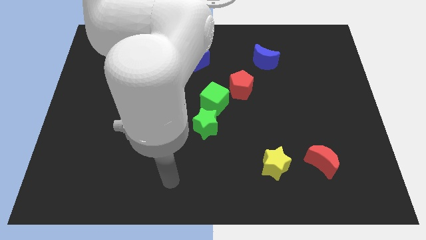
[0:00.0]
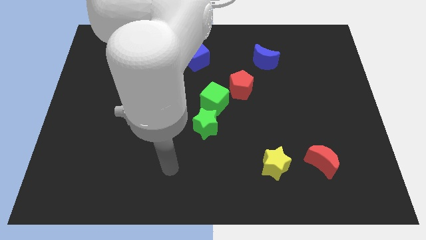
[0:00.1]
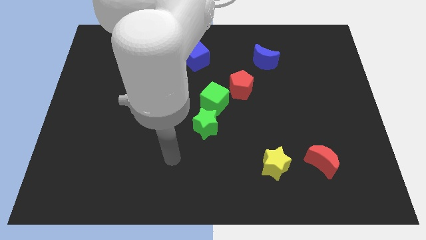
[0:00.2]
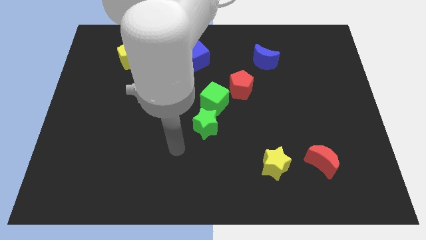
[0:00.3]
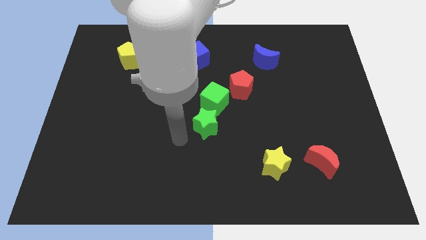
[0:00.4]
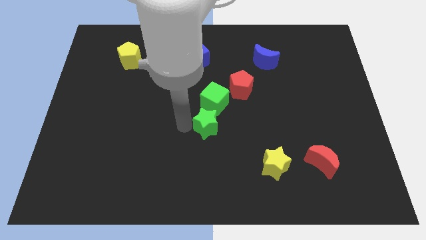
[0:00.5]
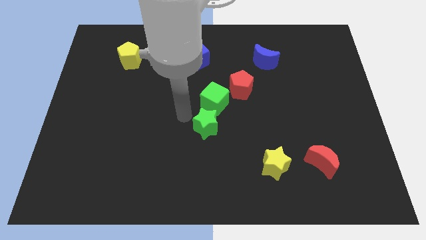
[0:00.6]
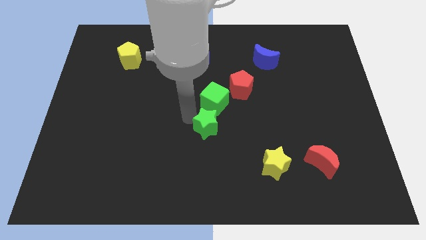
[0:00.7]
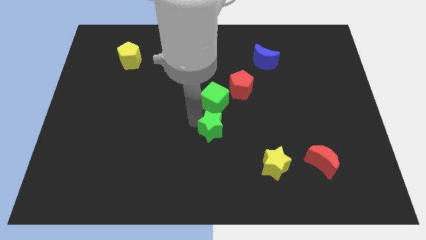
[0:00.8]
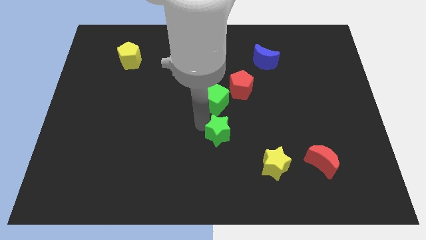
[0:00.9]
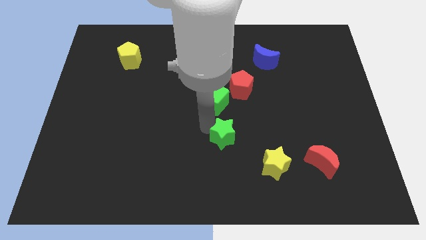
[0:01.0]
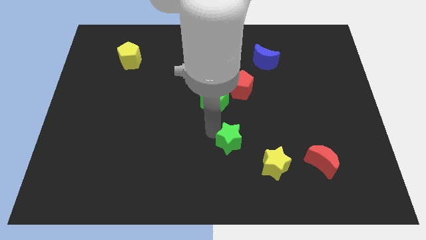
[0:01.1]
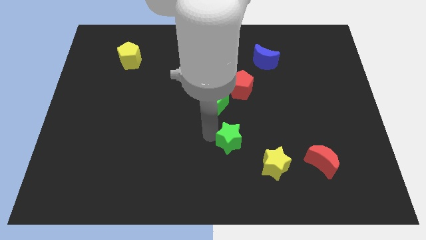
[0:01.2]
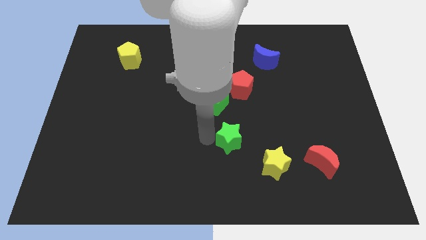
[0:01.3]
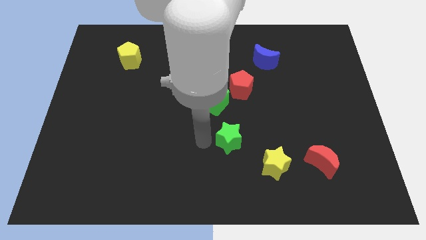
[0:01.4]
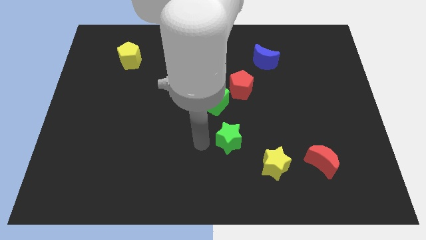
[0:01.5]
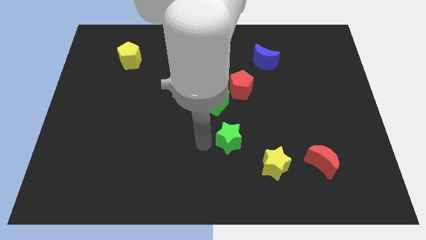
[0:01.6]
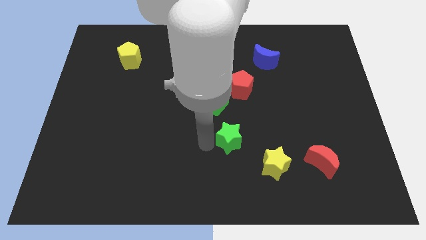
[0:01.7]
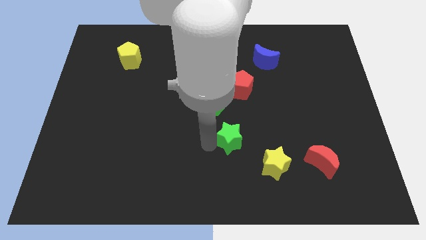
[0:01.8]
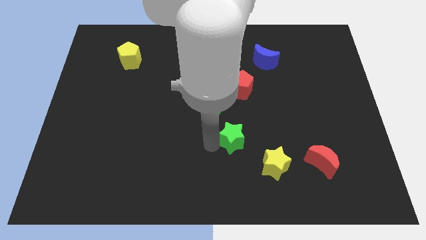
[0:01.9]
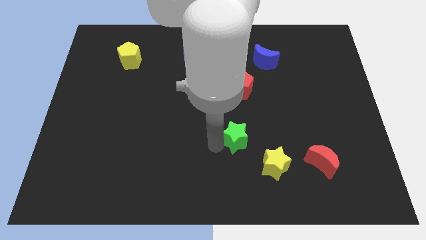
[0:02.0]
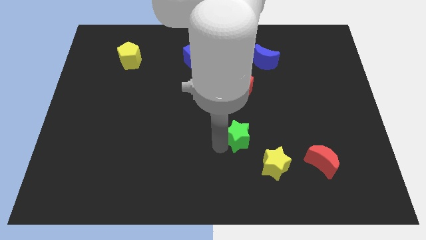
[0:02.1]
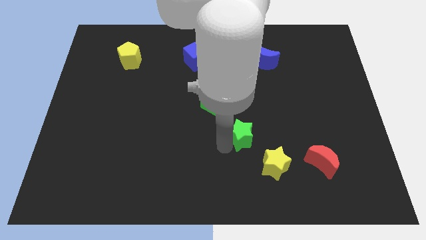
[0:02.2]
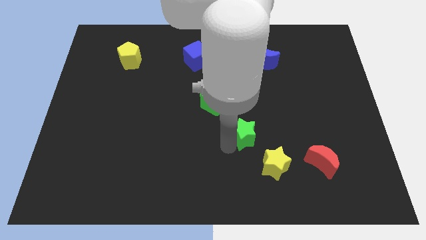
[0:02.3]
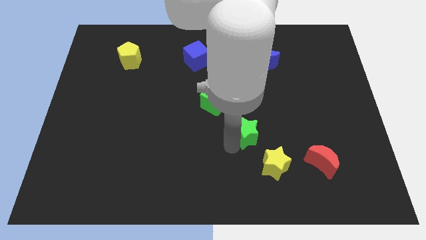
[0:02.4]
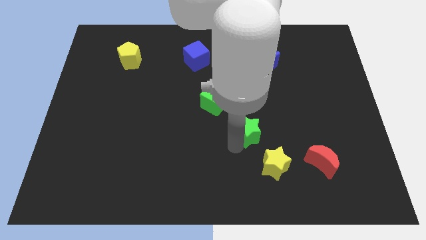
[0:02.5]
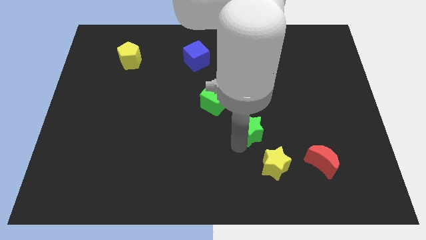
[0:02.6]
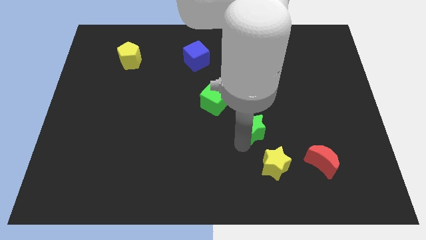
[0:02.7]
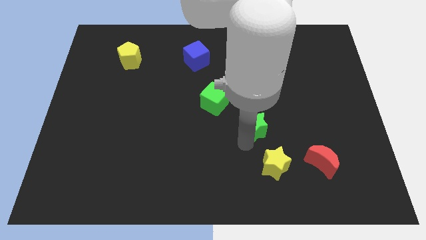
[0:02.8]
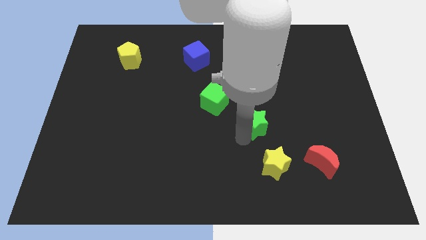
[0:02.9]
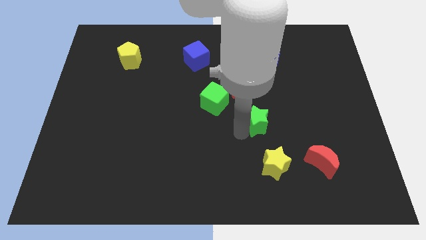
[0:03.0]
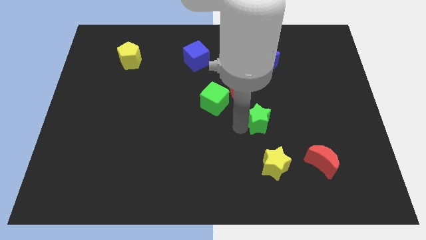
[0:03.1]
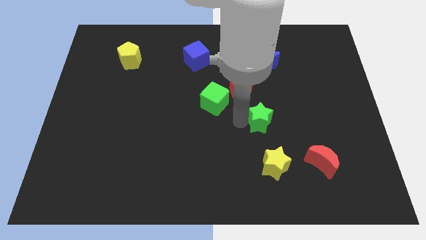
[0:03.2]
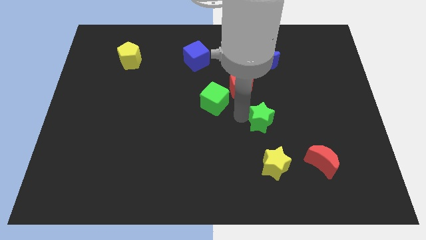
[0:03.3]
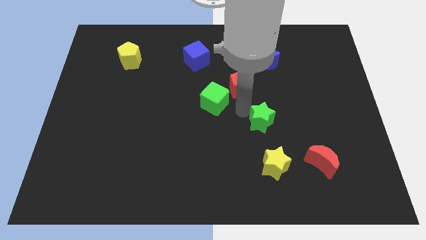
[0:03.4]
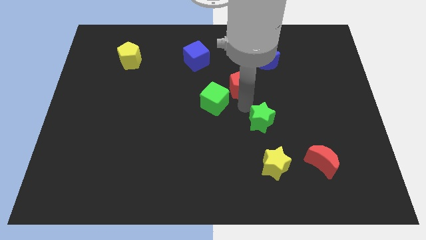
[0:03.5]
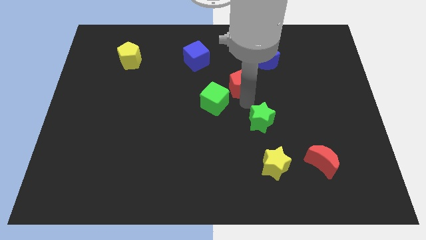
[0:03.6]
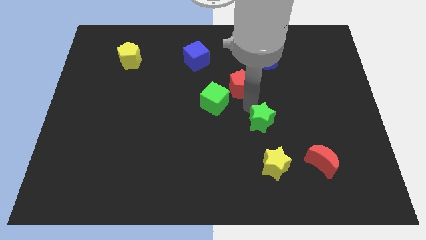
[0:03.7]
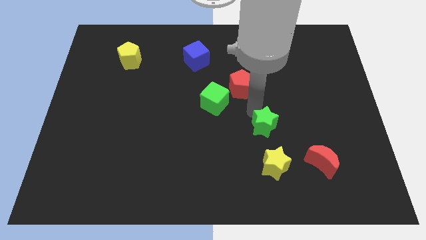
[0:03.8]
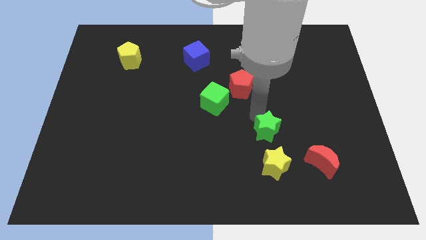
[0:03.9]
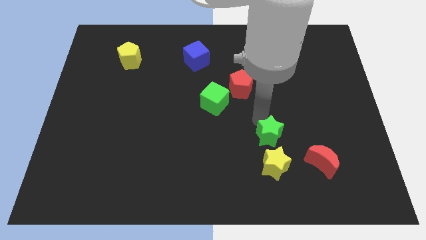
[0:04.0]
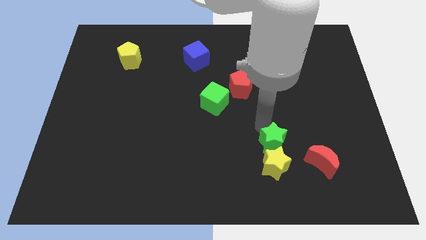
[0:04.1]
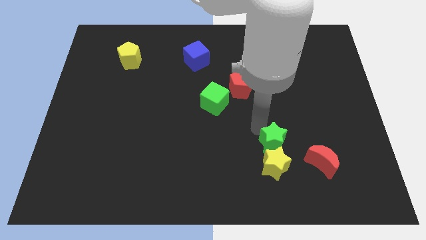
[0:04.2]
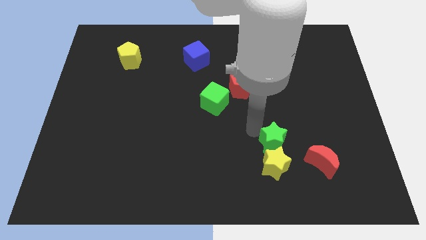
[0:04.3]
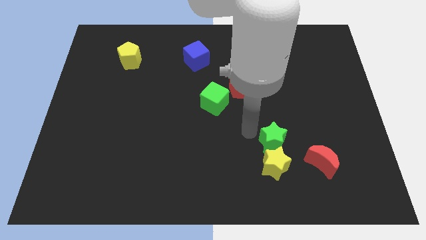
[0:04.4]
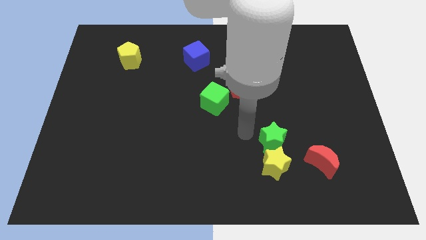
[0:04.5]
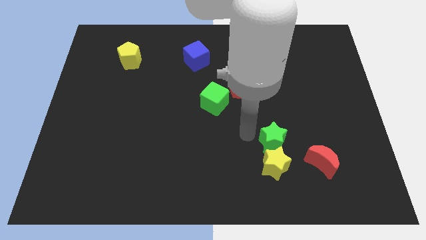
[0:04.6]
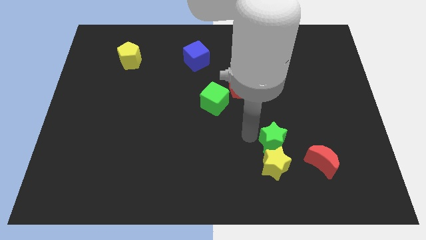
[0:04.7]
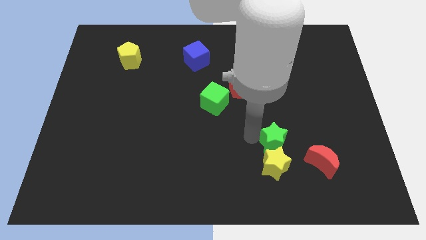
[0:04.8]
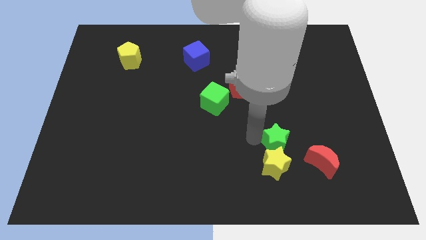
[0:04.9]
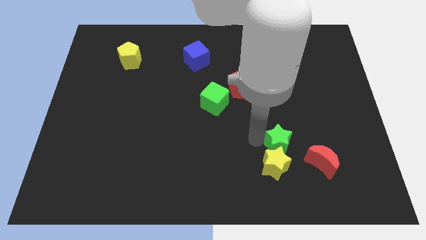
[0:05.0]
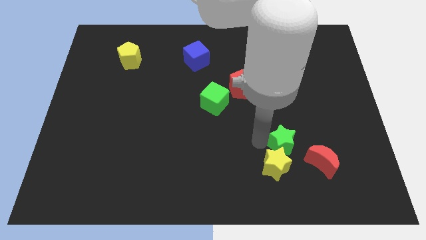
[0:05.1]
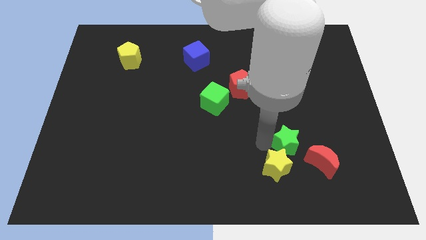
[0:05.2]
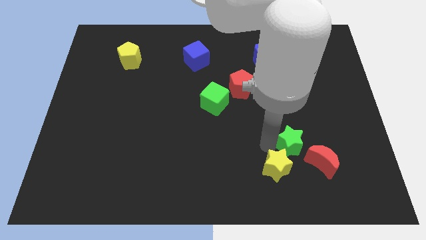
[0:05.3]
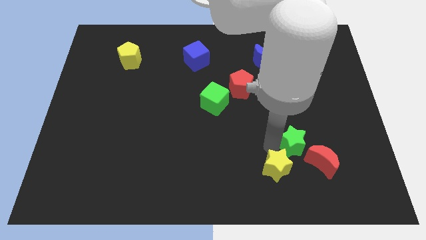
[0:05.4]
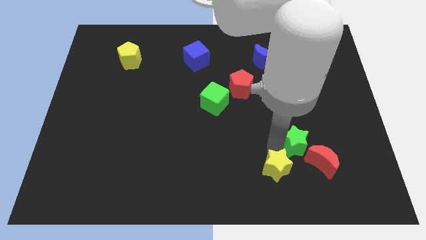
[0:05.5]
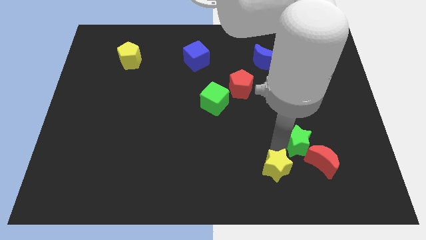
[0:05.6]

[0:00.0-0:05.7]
put the green star close to the red moon

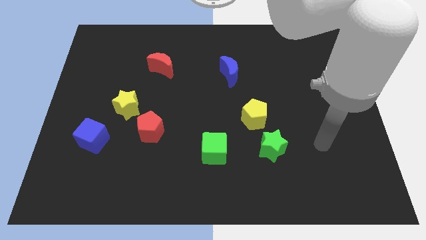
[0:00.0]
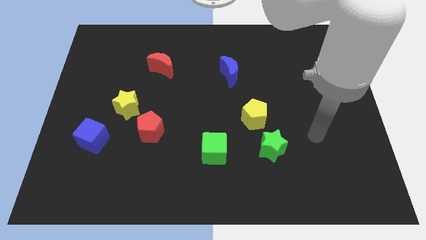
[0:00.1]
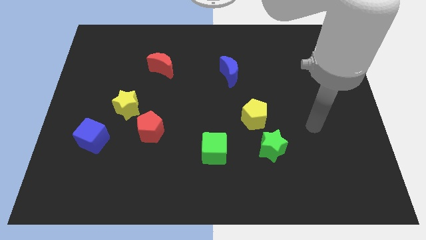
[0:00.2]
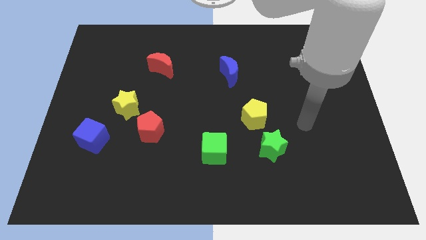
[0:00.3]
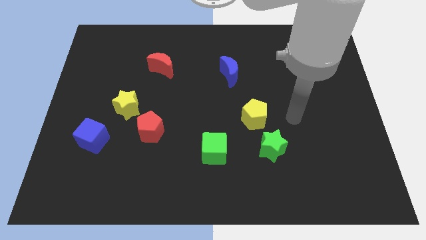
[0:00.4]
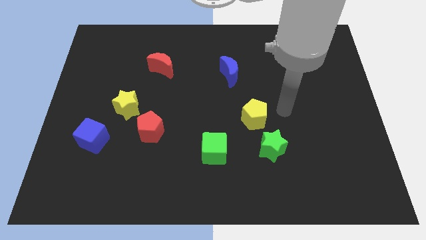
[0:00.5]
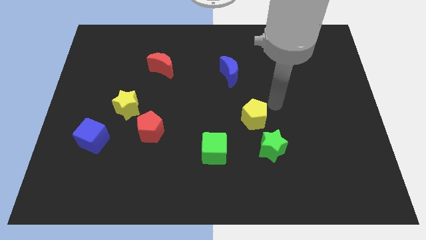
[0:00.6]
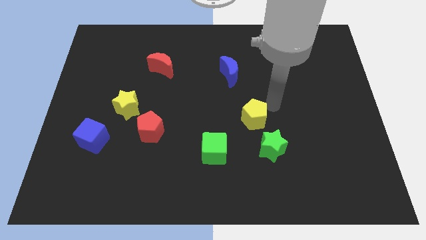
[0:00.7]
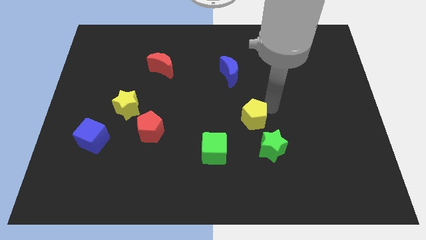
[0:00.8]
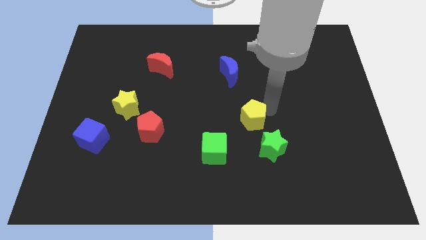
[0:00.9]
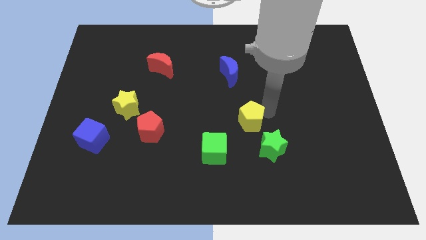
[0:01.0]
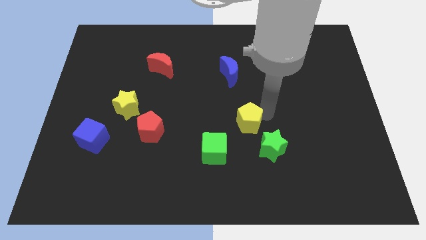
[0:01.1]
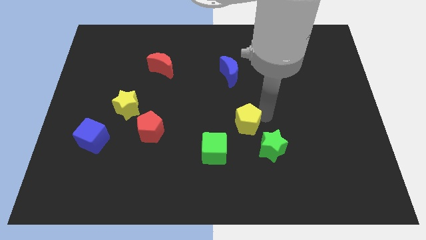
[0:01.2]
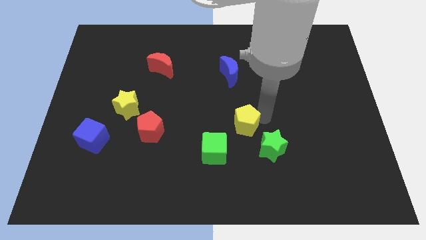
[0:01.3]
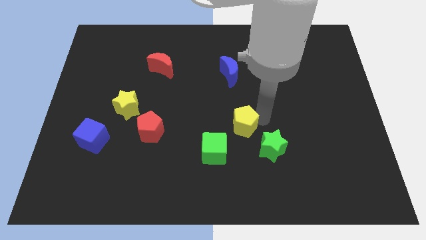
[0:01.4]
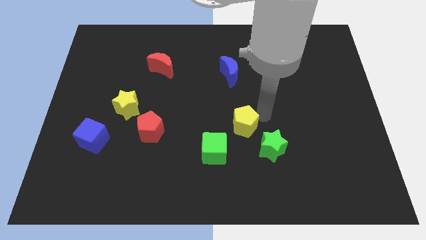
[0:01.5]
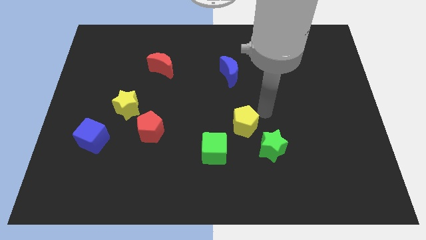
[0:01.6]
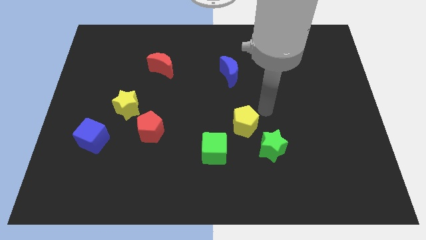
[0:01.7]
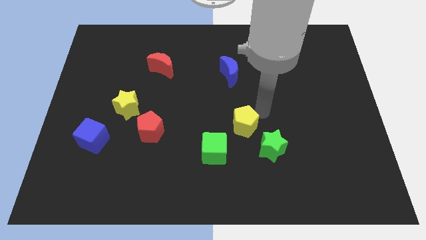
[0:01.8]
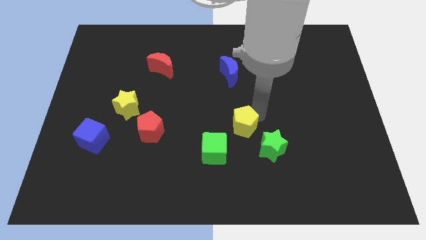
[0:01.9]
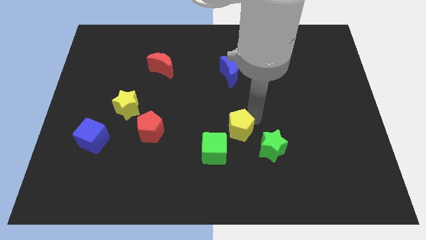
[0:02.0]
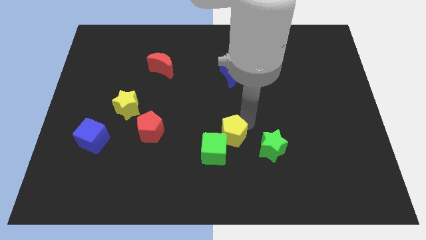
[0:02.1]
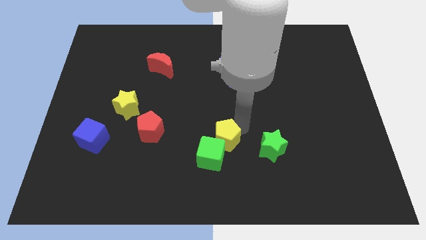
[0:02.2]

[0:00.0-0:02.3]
push the yellow pentagon to the green cube
